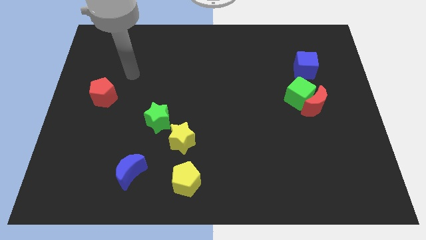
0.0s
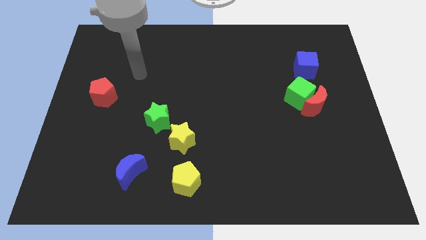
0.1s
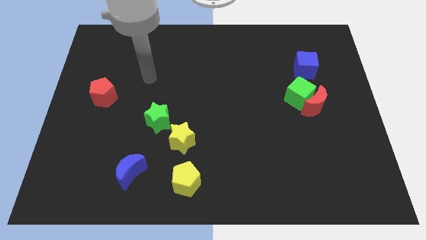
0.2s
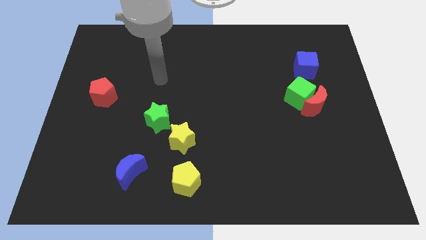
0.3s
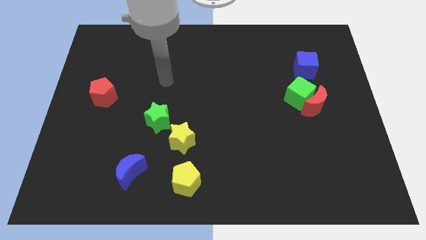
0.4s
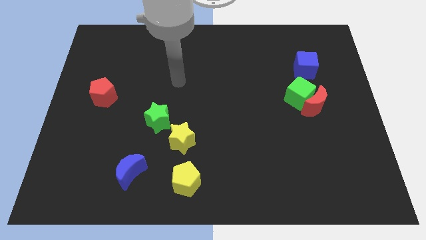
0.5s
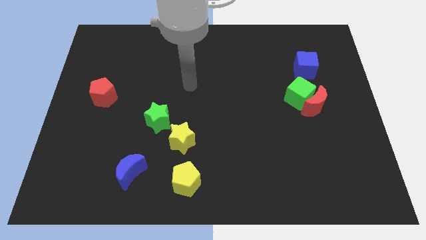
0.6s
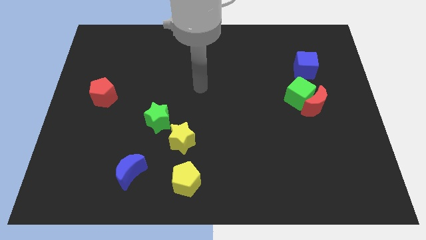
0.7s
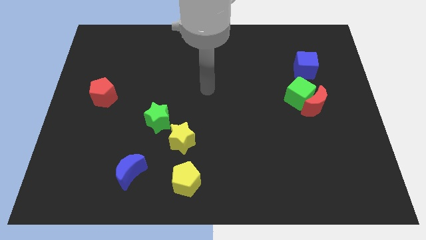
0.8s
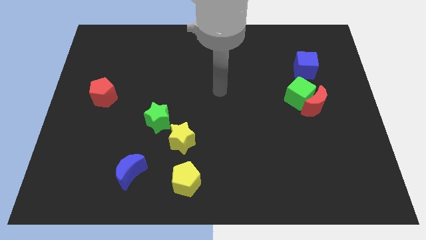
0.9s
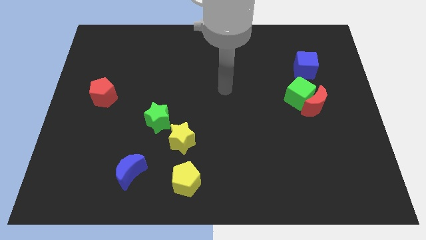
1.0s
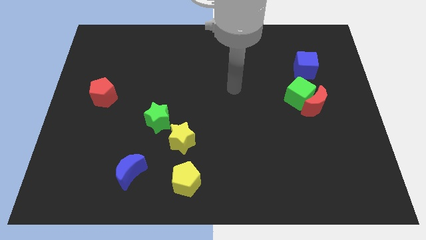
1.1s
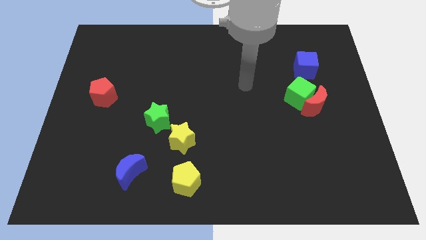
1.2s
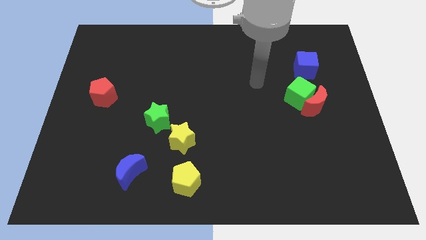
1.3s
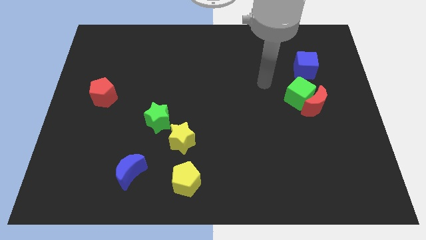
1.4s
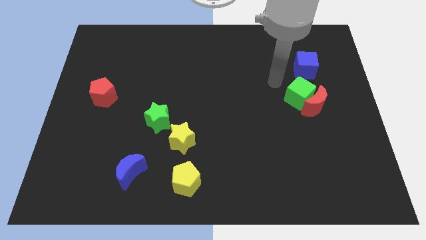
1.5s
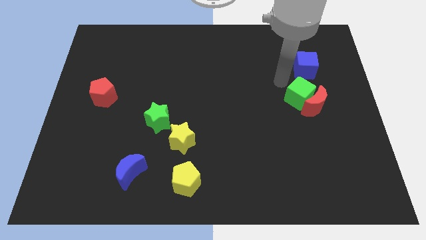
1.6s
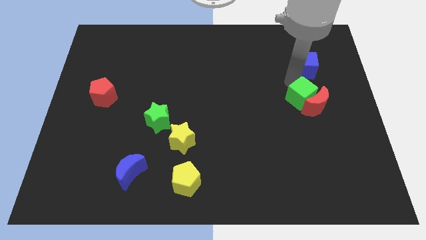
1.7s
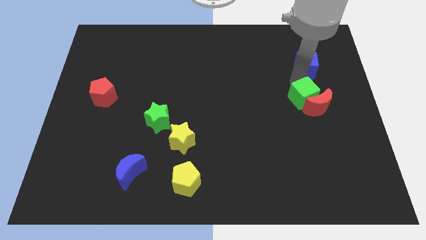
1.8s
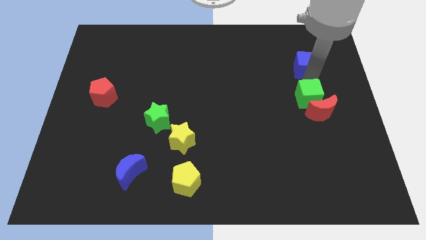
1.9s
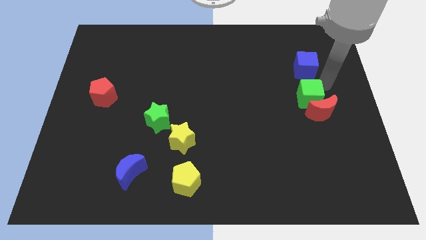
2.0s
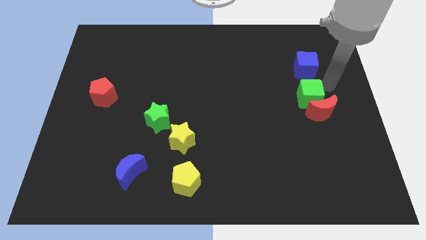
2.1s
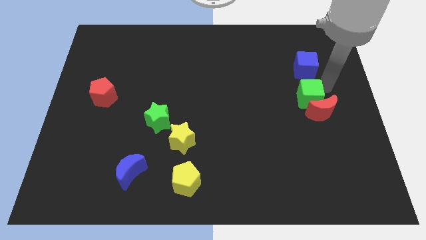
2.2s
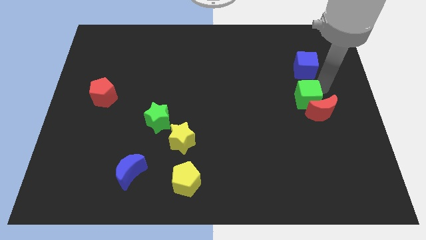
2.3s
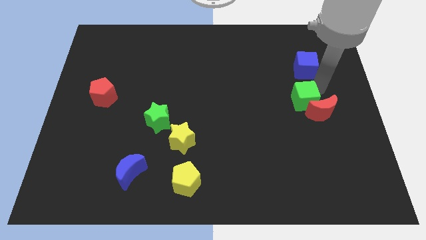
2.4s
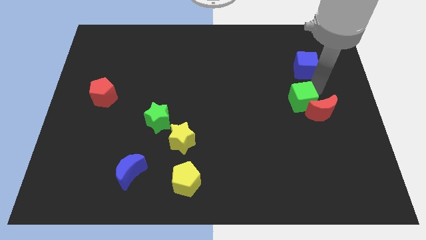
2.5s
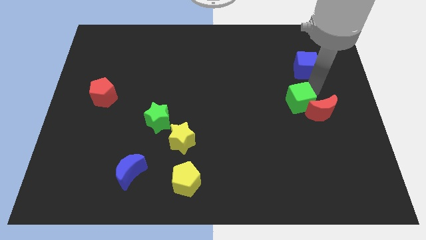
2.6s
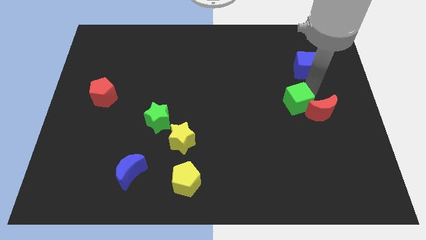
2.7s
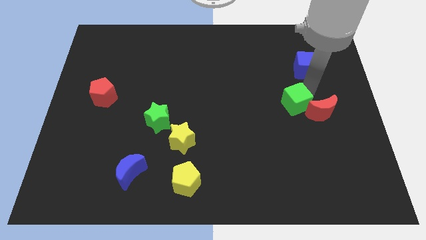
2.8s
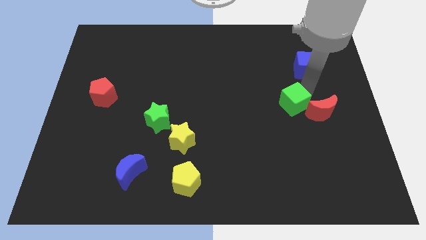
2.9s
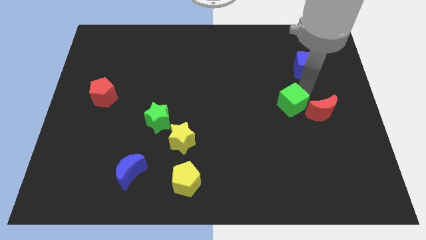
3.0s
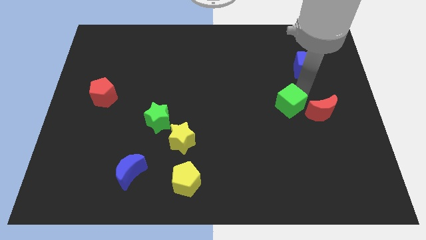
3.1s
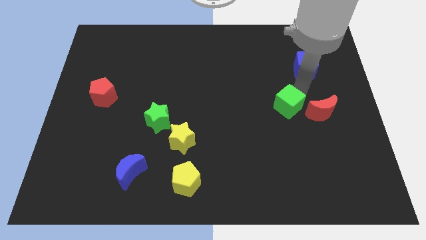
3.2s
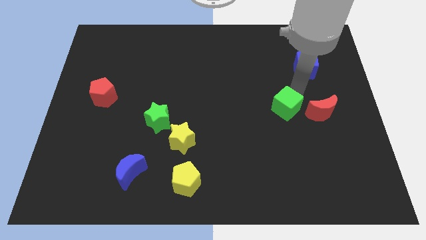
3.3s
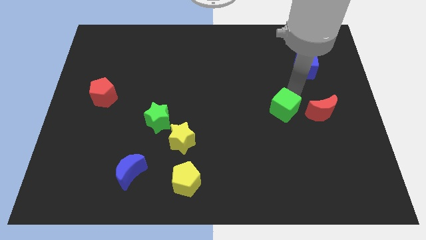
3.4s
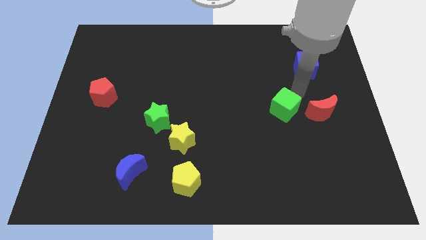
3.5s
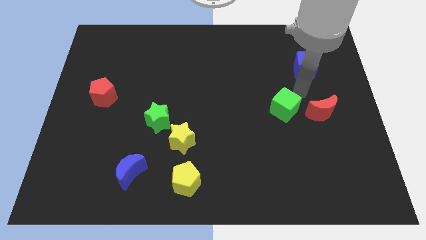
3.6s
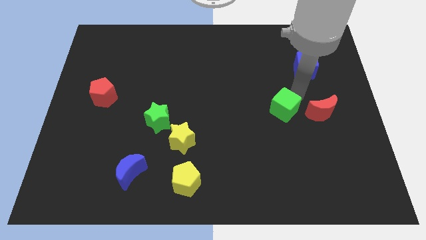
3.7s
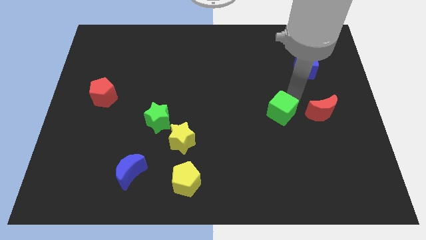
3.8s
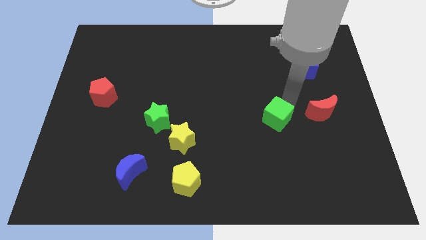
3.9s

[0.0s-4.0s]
push the green cube a little bit down and then left

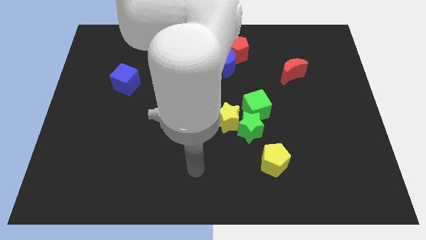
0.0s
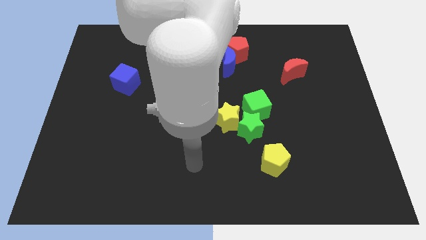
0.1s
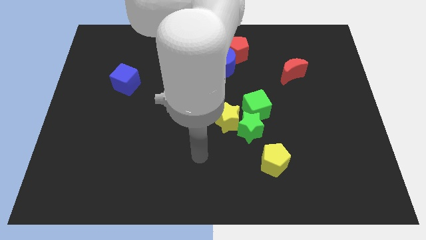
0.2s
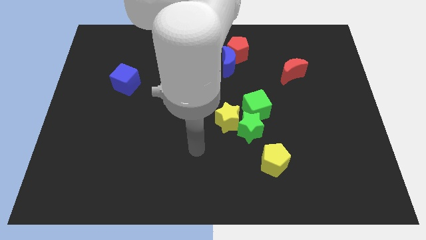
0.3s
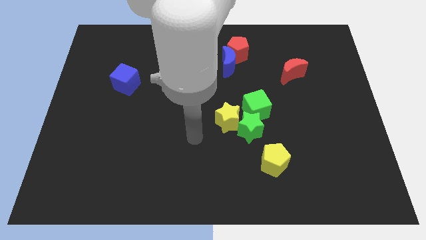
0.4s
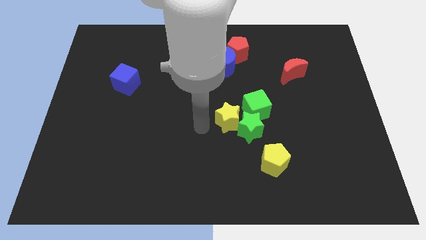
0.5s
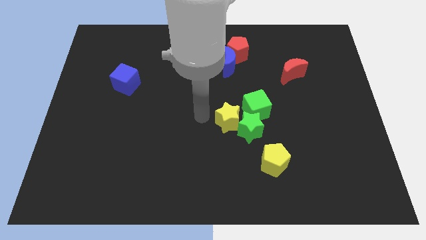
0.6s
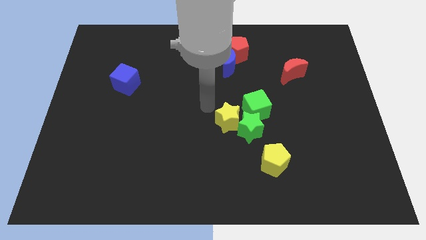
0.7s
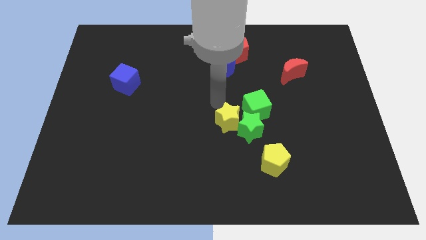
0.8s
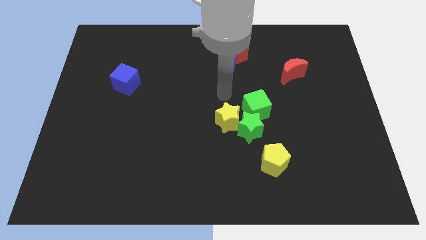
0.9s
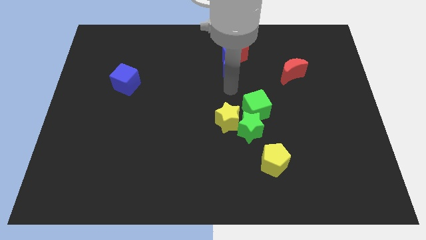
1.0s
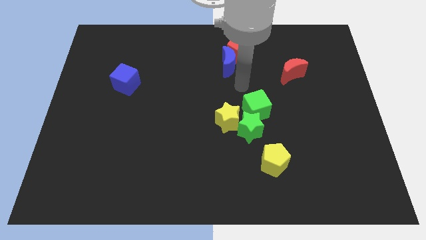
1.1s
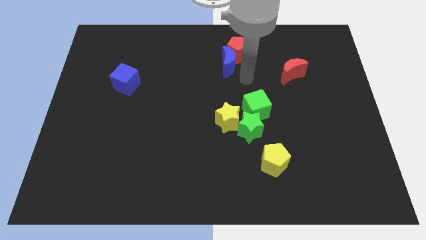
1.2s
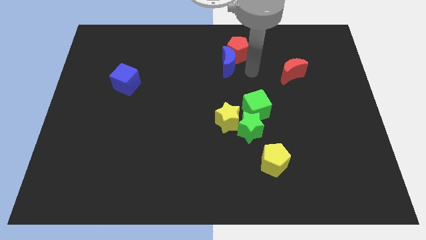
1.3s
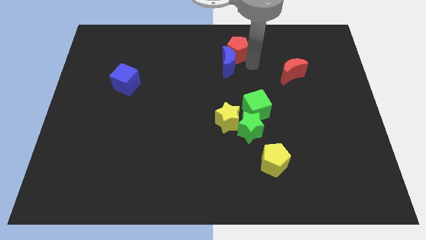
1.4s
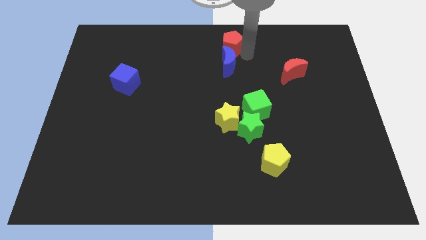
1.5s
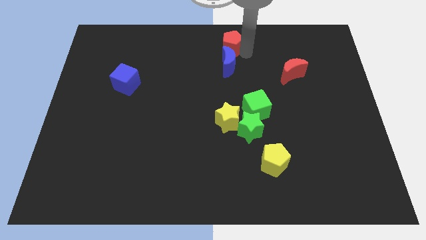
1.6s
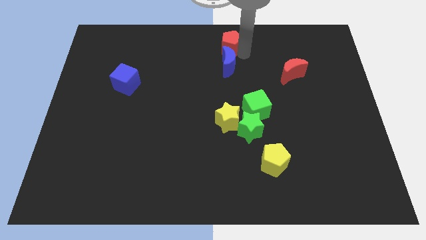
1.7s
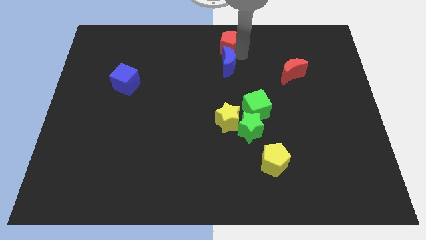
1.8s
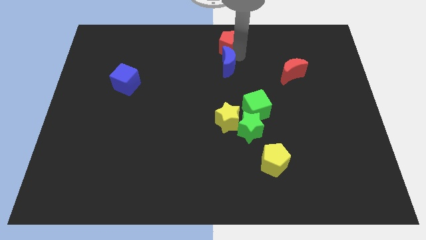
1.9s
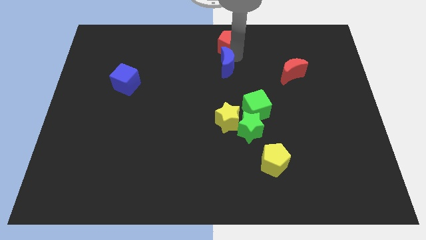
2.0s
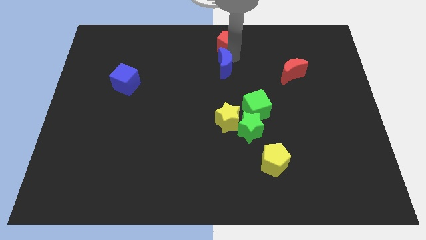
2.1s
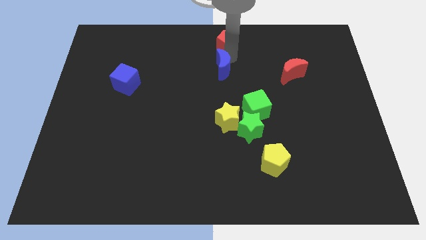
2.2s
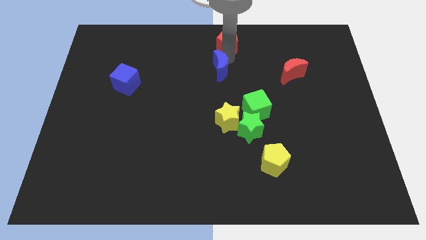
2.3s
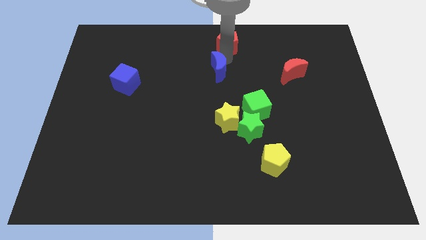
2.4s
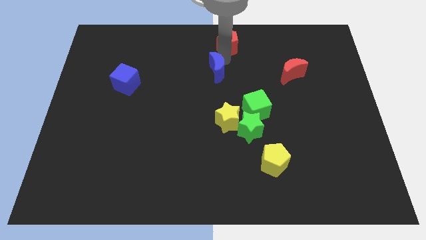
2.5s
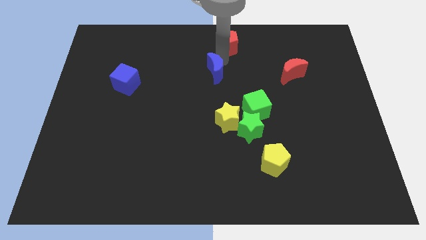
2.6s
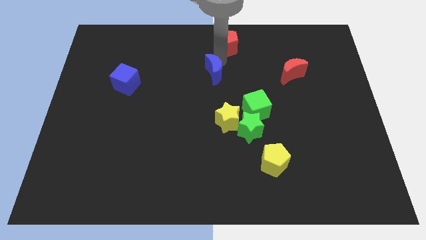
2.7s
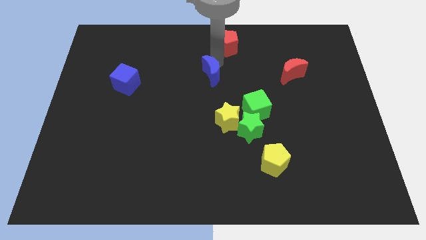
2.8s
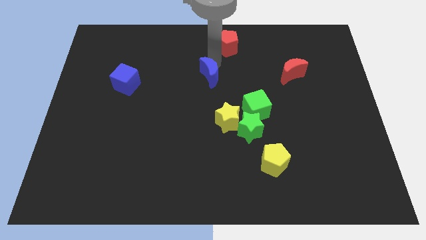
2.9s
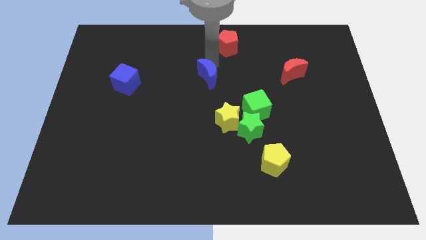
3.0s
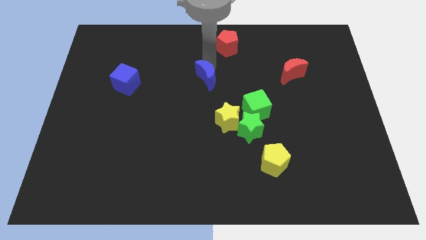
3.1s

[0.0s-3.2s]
slide the blue moon down and then left a bit

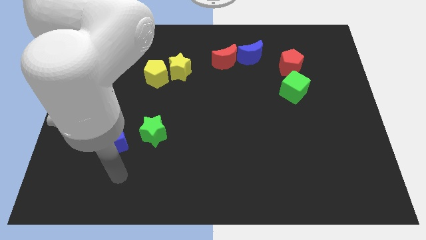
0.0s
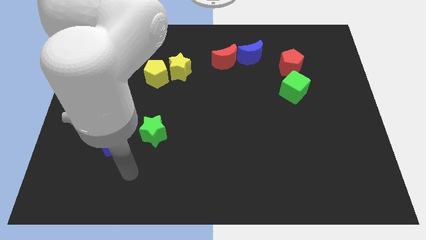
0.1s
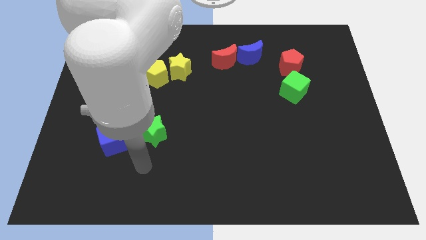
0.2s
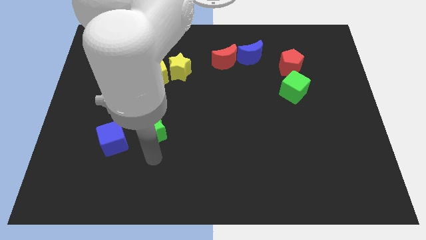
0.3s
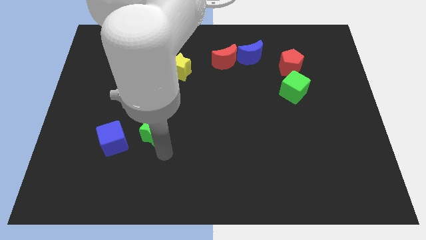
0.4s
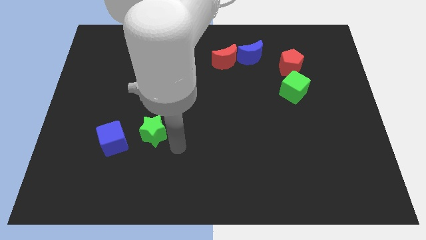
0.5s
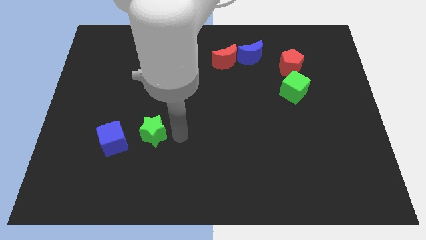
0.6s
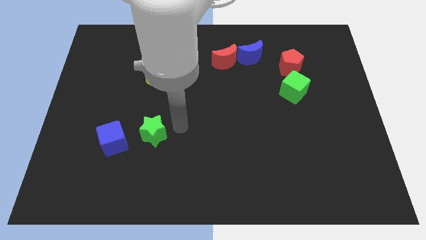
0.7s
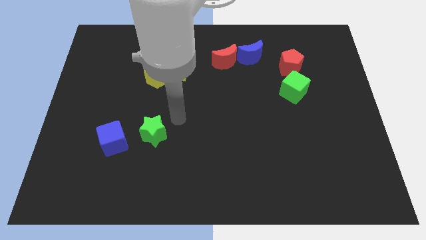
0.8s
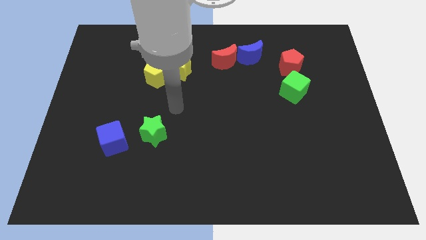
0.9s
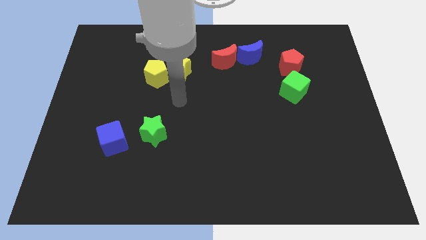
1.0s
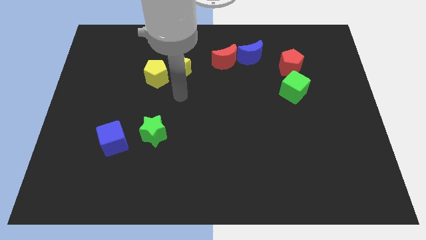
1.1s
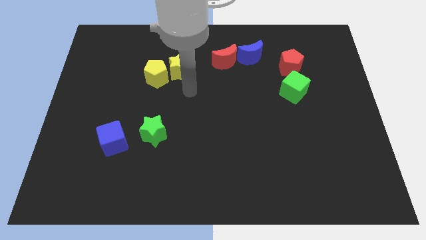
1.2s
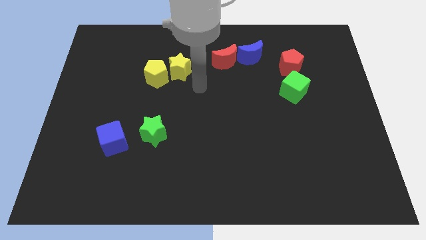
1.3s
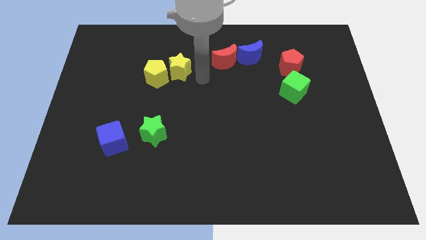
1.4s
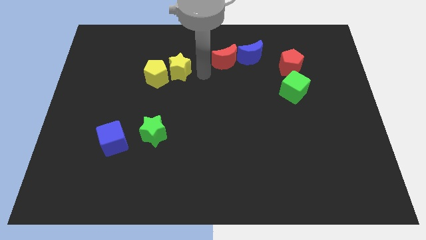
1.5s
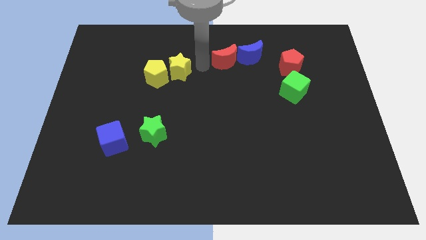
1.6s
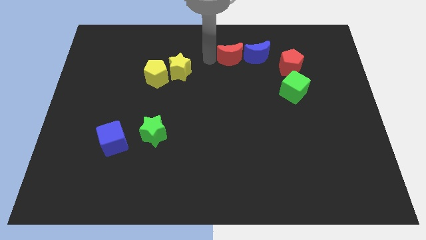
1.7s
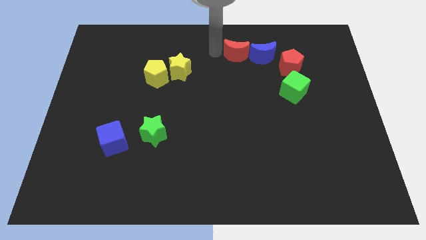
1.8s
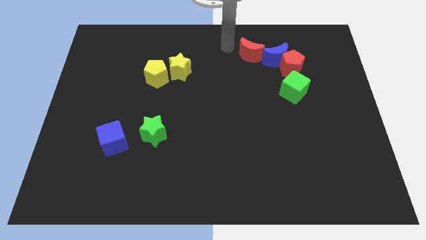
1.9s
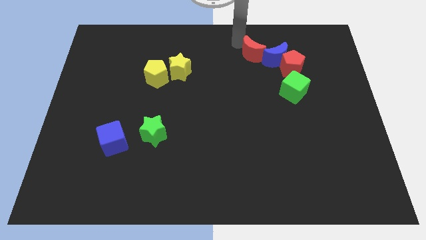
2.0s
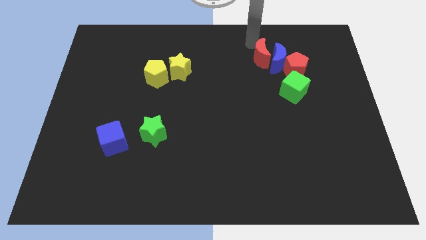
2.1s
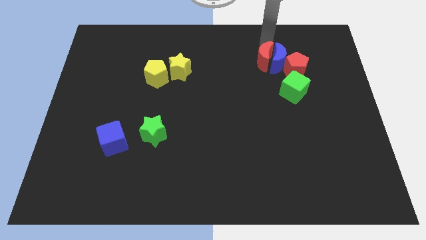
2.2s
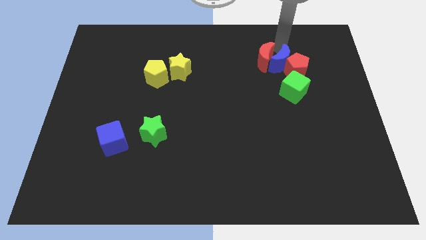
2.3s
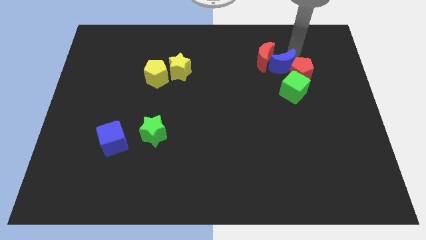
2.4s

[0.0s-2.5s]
move the blue moon a bit diagonally downwards and right
